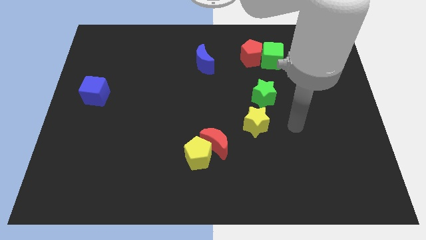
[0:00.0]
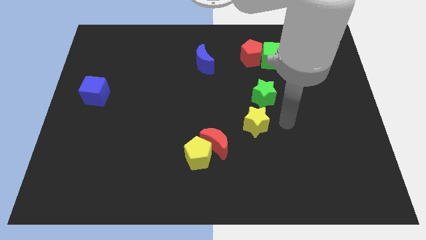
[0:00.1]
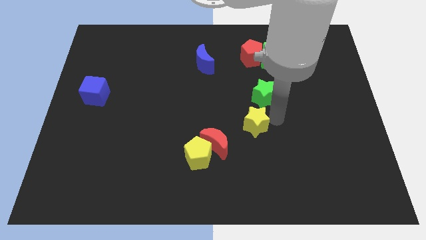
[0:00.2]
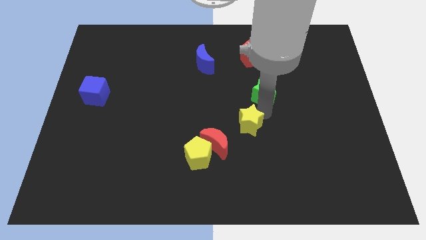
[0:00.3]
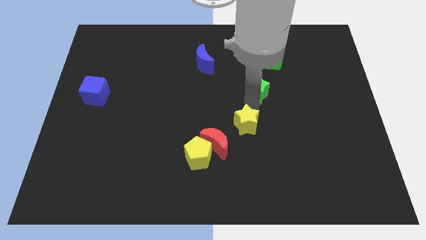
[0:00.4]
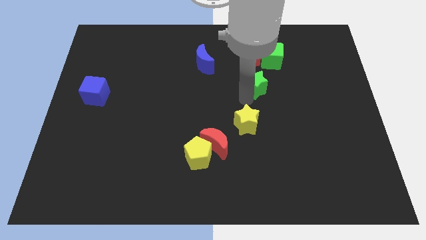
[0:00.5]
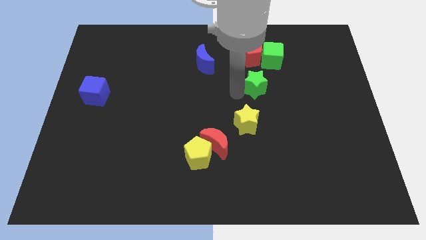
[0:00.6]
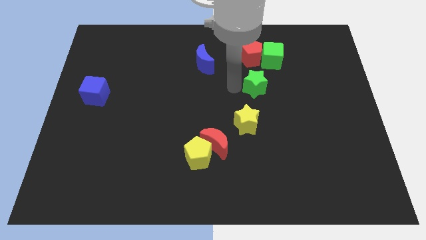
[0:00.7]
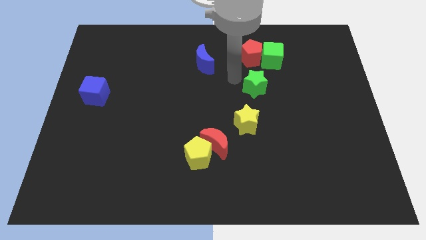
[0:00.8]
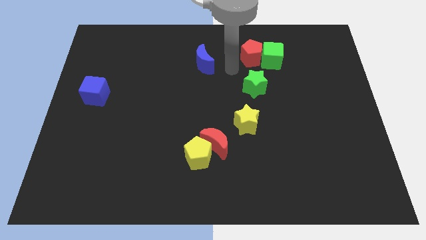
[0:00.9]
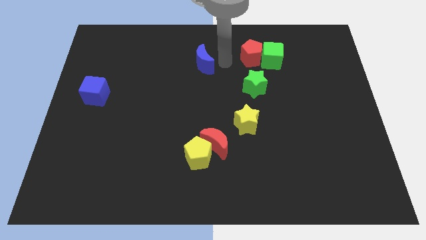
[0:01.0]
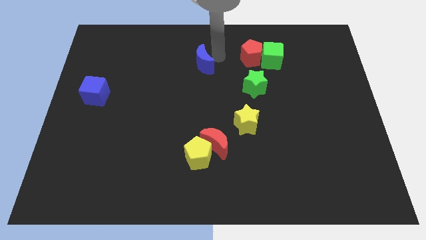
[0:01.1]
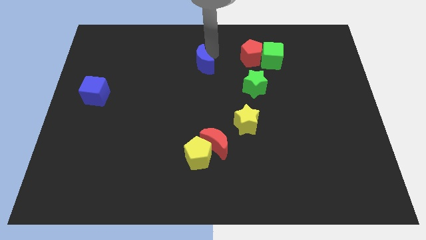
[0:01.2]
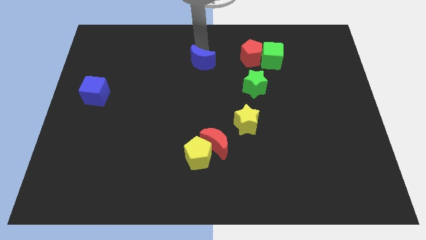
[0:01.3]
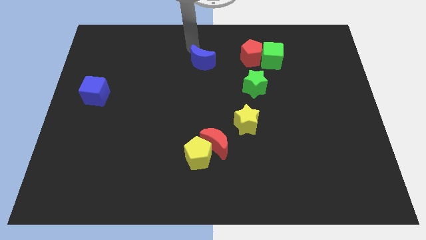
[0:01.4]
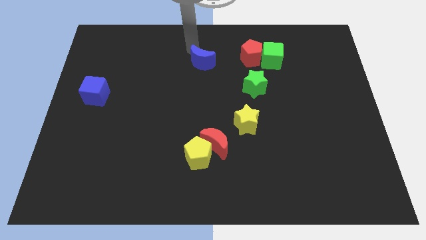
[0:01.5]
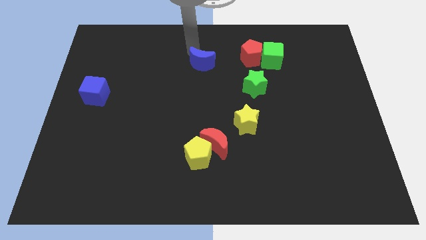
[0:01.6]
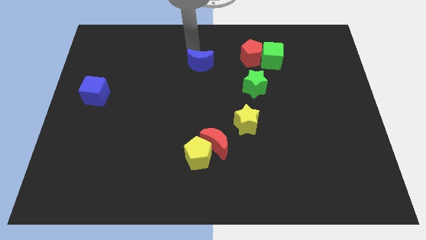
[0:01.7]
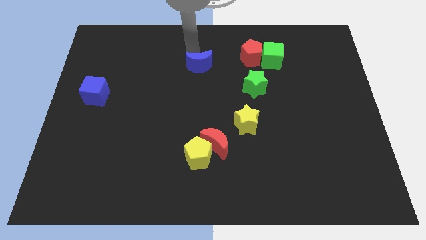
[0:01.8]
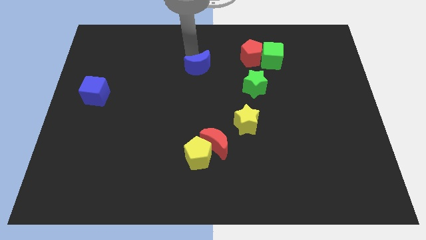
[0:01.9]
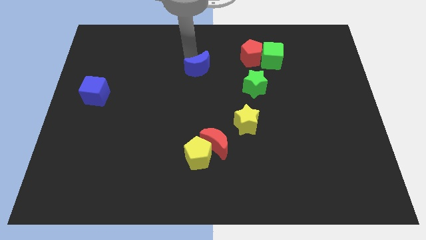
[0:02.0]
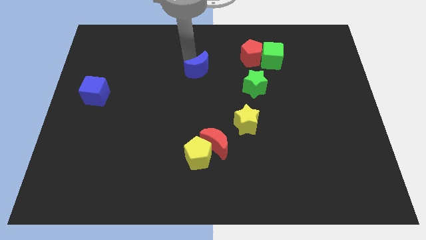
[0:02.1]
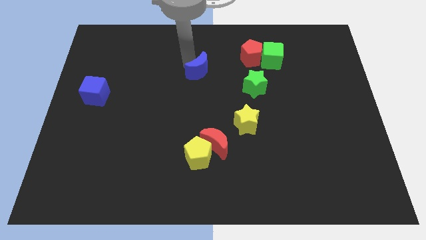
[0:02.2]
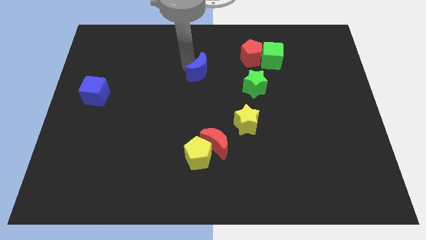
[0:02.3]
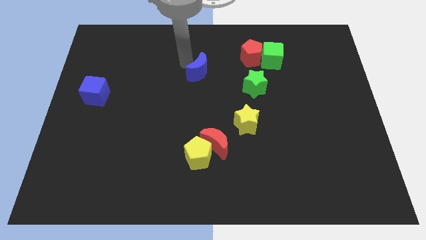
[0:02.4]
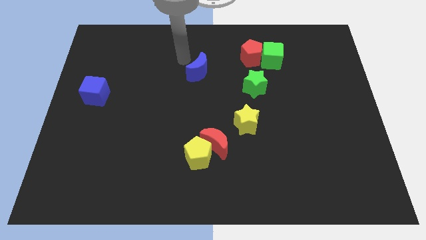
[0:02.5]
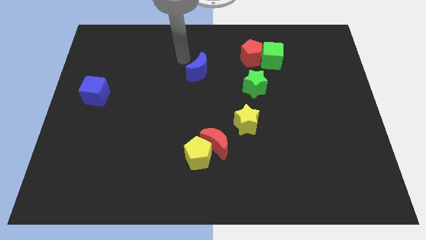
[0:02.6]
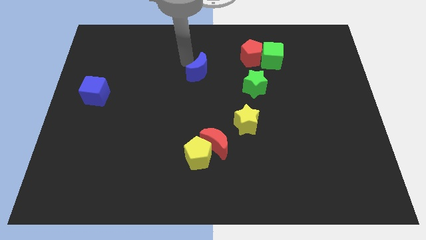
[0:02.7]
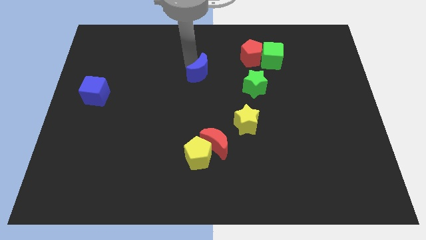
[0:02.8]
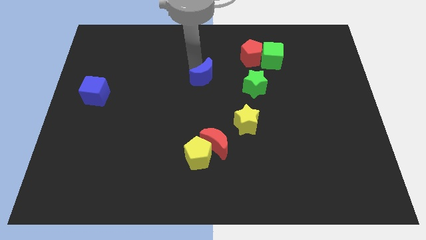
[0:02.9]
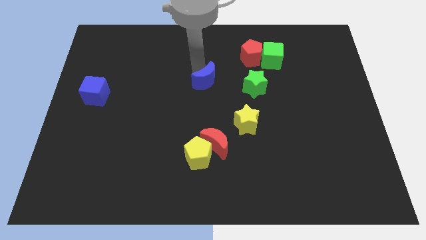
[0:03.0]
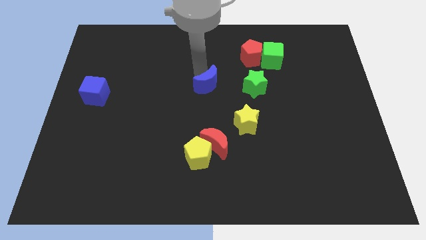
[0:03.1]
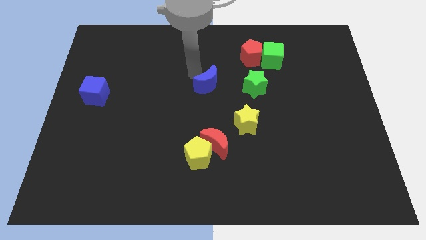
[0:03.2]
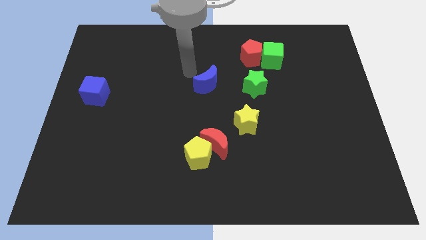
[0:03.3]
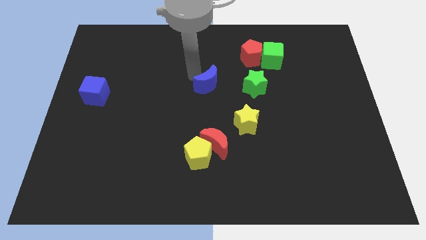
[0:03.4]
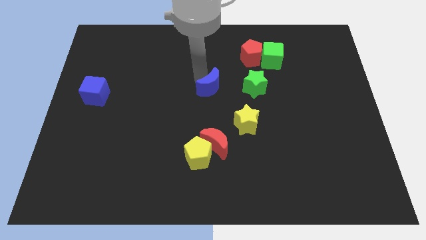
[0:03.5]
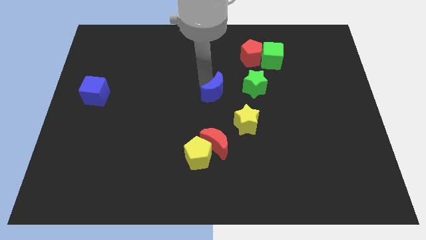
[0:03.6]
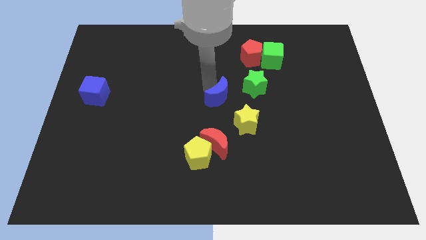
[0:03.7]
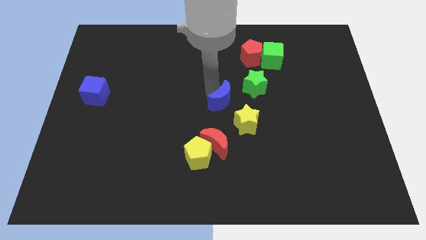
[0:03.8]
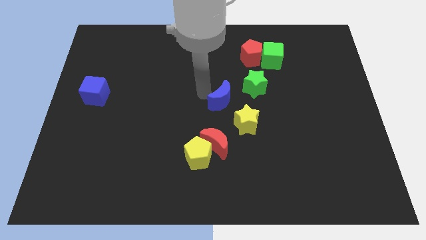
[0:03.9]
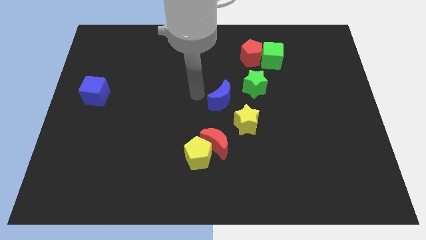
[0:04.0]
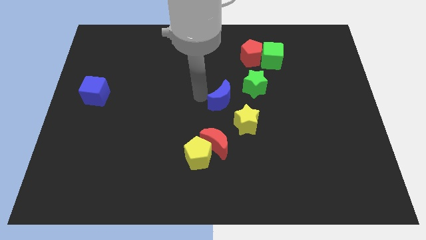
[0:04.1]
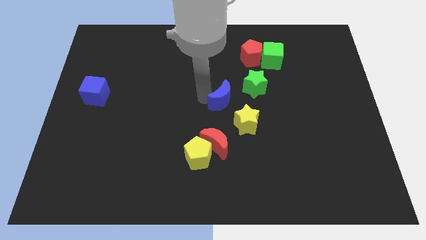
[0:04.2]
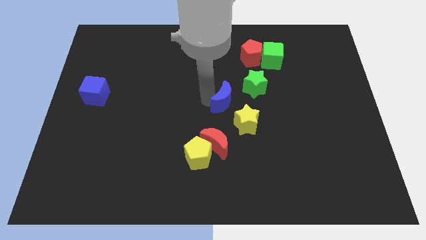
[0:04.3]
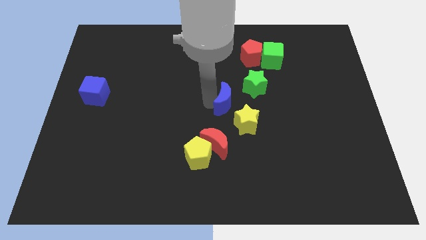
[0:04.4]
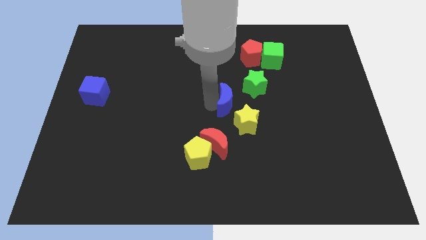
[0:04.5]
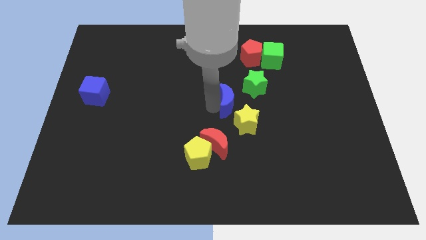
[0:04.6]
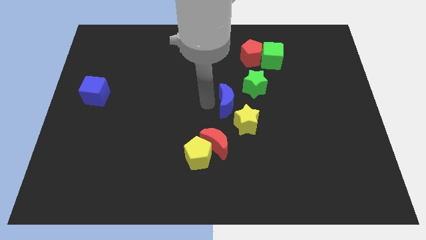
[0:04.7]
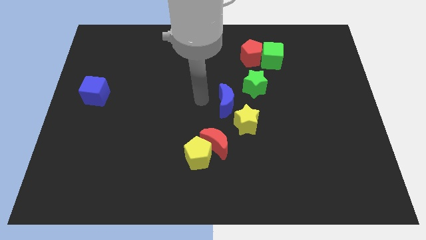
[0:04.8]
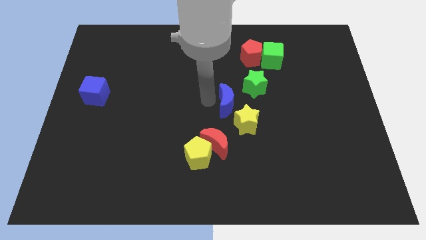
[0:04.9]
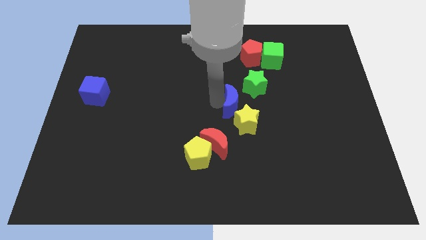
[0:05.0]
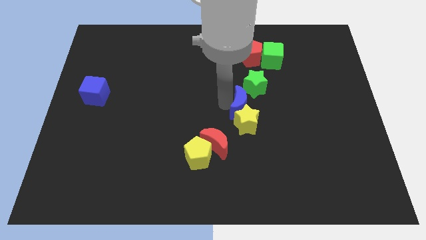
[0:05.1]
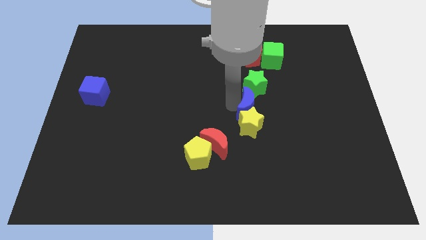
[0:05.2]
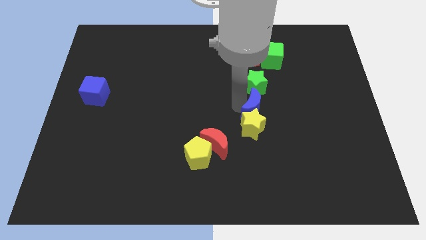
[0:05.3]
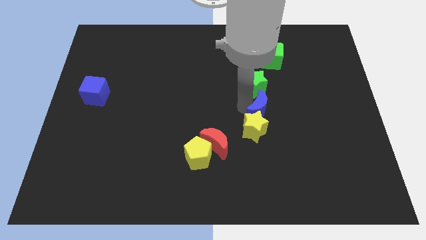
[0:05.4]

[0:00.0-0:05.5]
push the blue moon down and then right

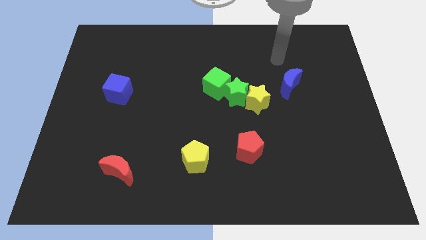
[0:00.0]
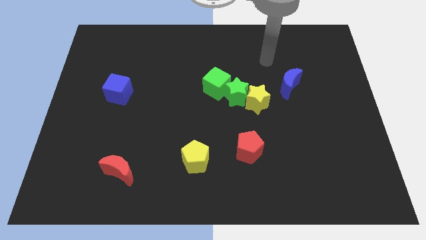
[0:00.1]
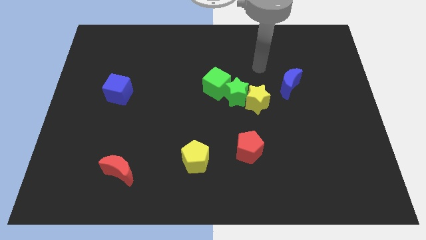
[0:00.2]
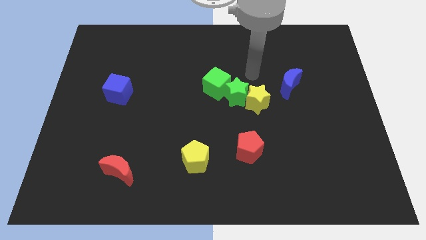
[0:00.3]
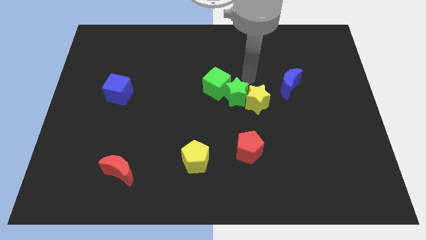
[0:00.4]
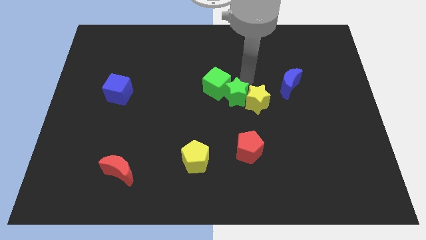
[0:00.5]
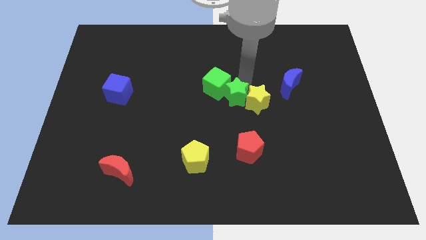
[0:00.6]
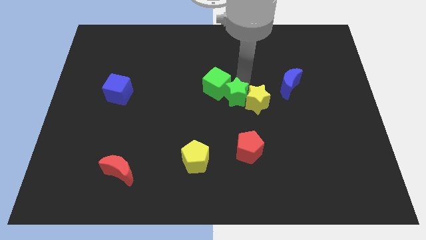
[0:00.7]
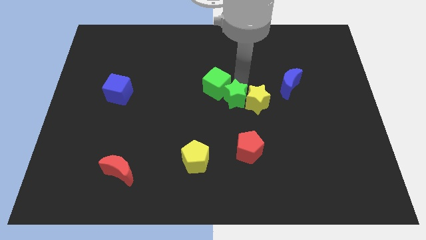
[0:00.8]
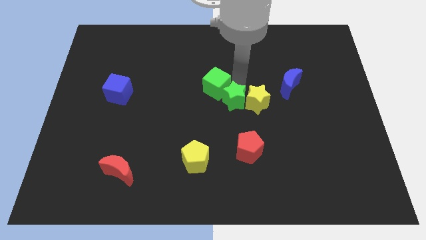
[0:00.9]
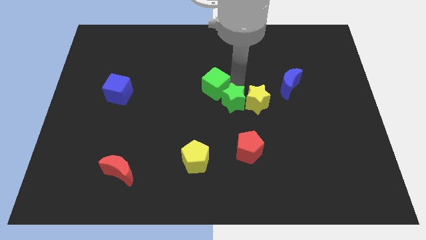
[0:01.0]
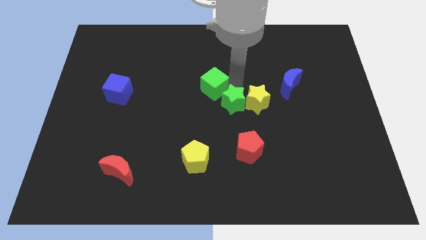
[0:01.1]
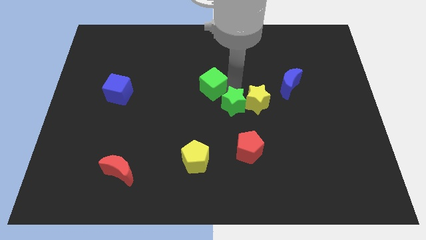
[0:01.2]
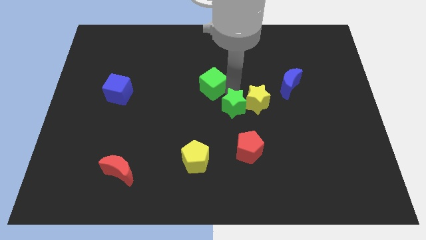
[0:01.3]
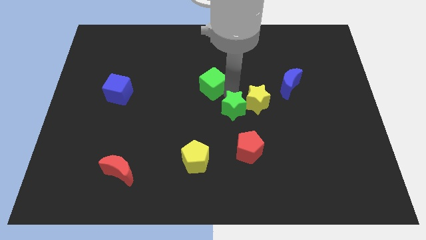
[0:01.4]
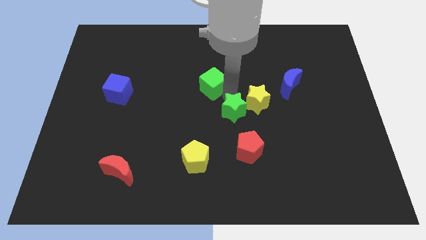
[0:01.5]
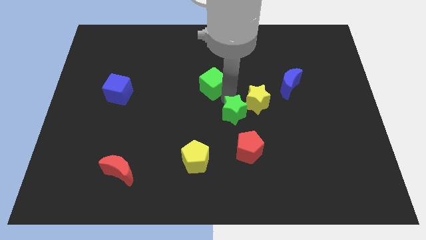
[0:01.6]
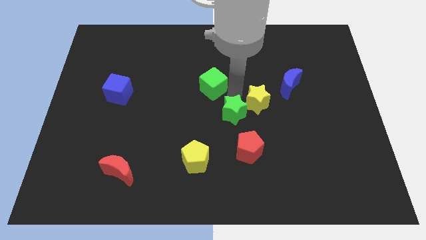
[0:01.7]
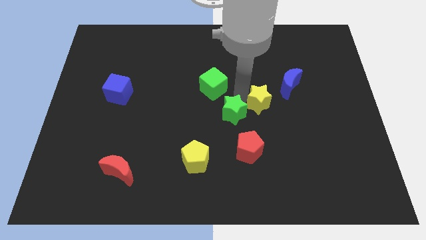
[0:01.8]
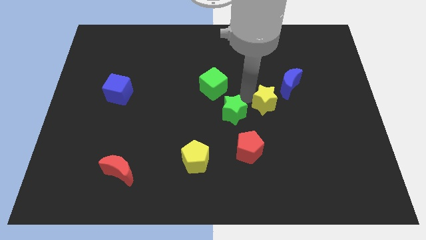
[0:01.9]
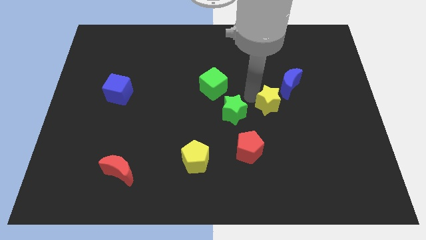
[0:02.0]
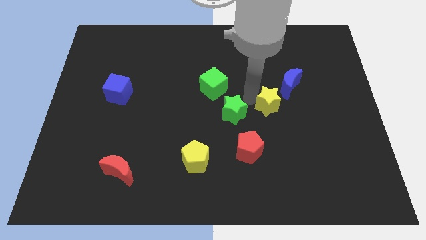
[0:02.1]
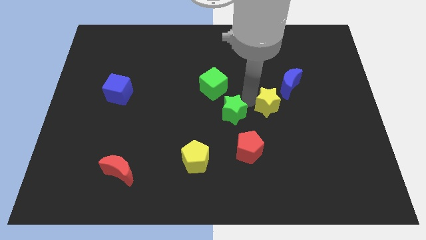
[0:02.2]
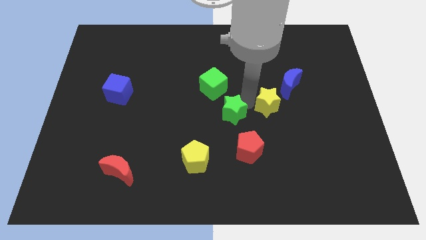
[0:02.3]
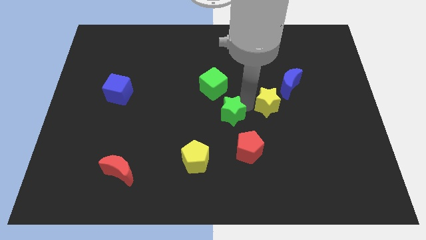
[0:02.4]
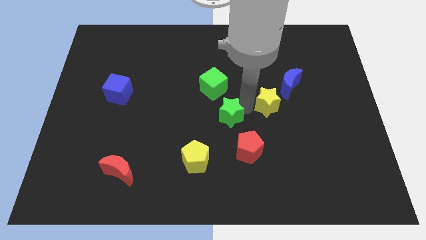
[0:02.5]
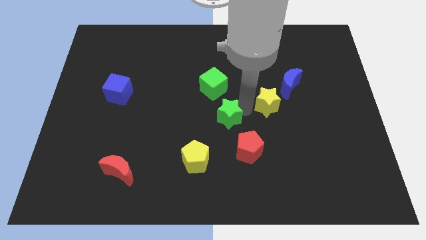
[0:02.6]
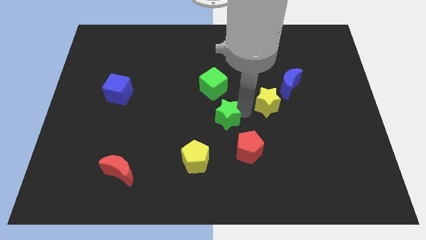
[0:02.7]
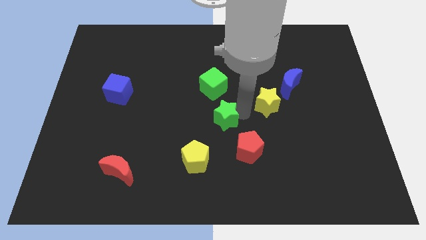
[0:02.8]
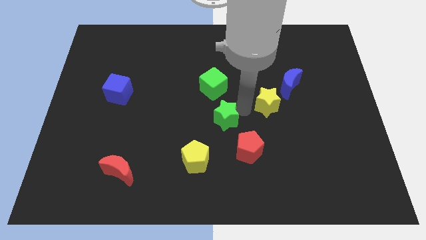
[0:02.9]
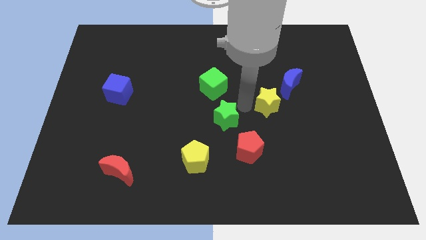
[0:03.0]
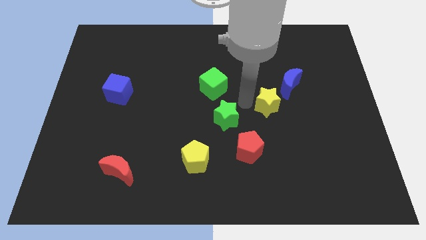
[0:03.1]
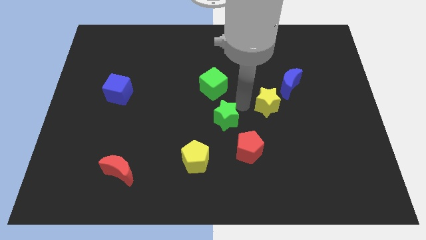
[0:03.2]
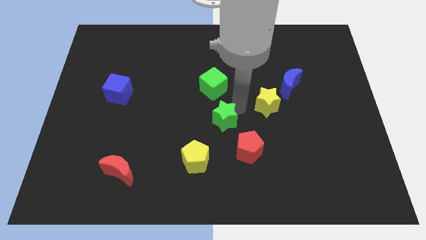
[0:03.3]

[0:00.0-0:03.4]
slide the green star downwards a little bit
